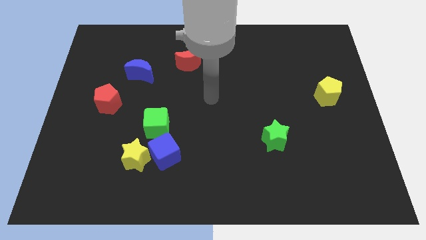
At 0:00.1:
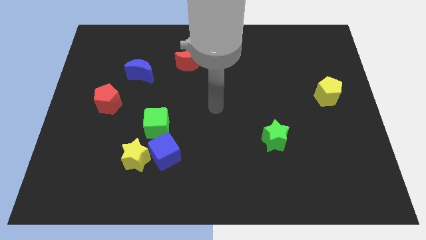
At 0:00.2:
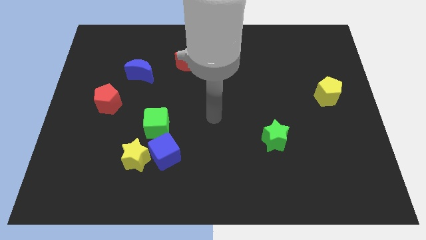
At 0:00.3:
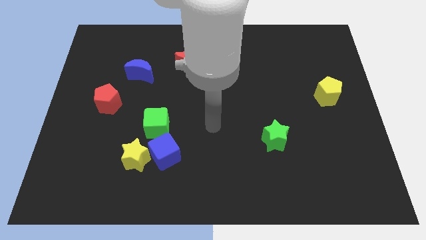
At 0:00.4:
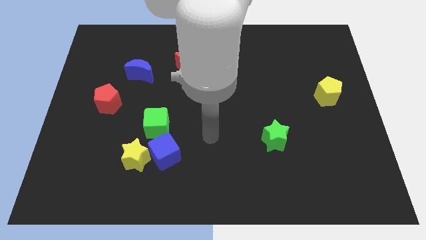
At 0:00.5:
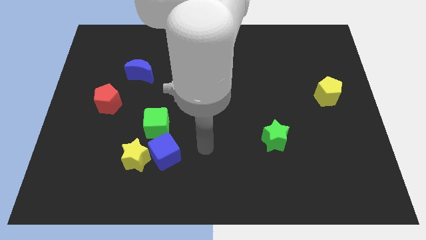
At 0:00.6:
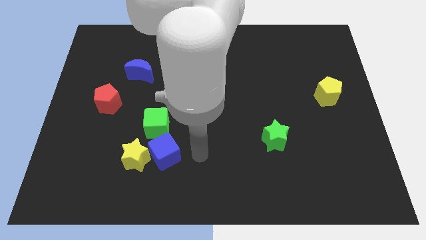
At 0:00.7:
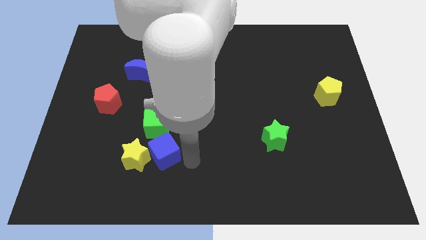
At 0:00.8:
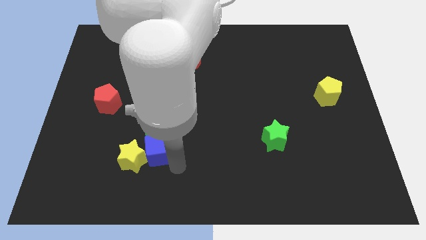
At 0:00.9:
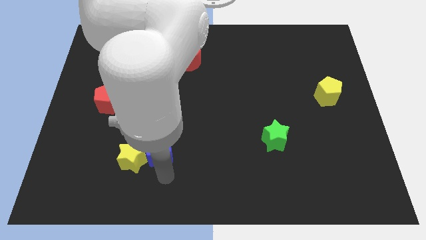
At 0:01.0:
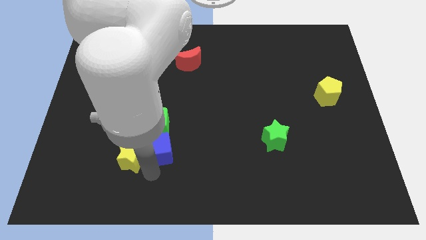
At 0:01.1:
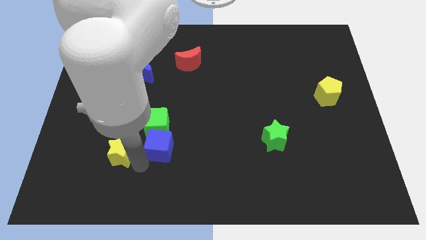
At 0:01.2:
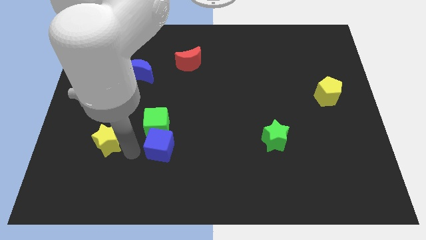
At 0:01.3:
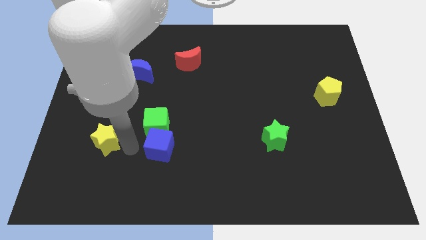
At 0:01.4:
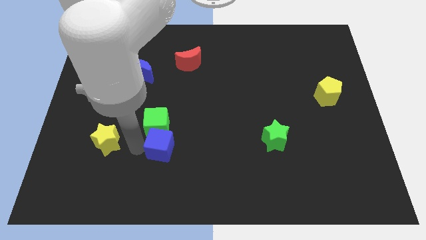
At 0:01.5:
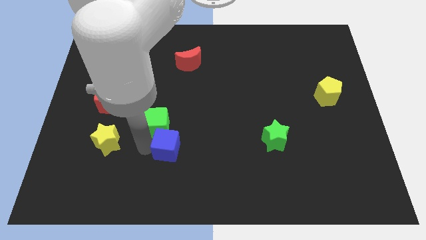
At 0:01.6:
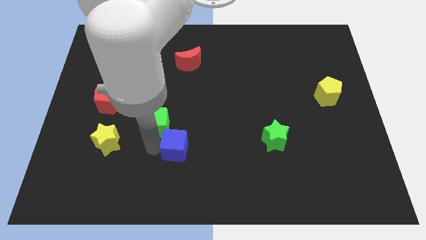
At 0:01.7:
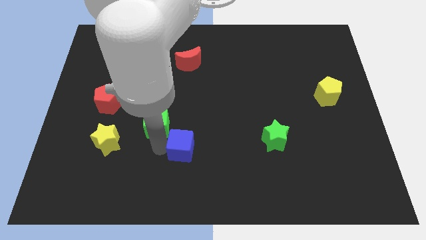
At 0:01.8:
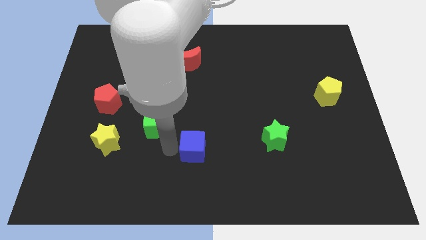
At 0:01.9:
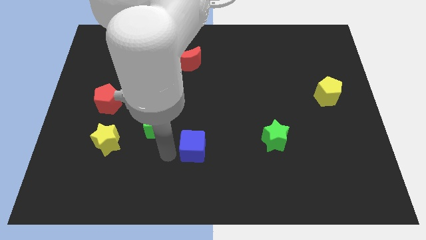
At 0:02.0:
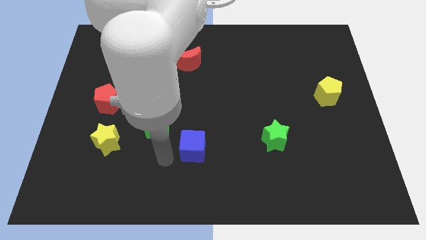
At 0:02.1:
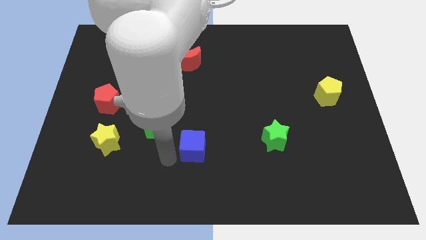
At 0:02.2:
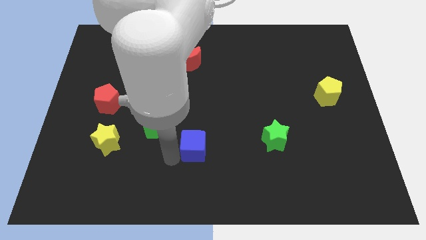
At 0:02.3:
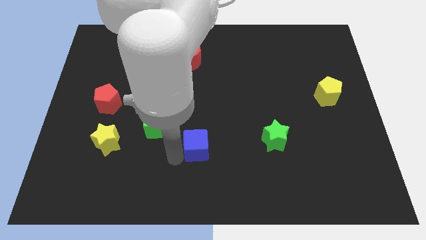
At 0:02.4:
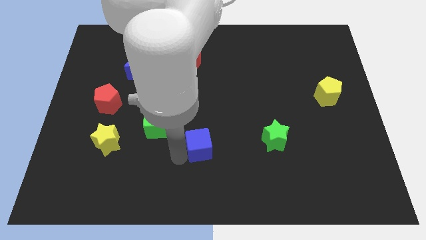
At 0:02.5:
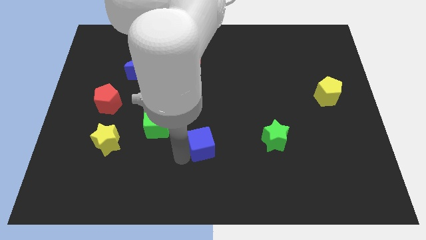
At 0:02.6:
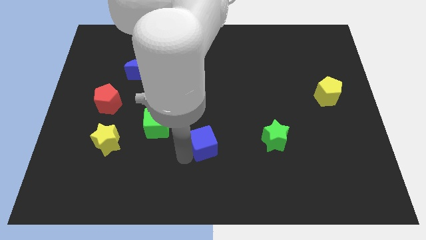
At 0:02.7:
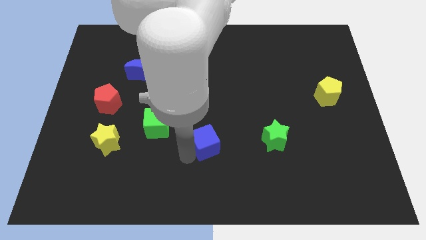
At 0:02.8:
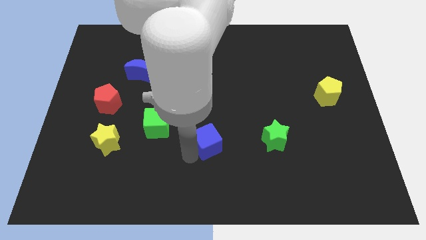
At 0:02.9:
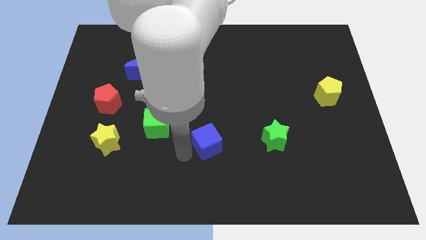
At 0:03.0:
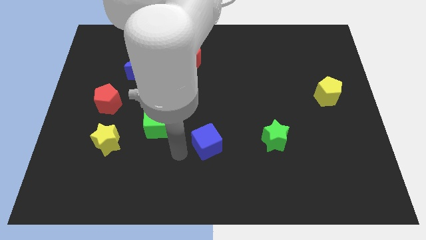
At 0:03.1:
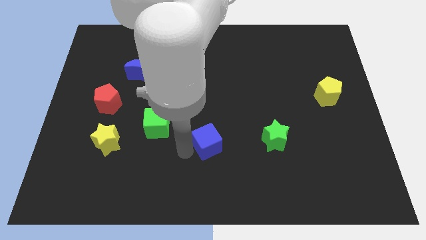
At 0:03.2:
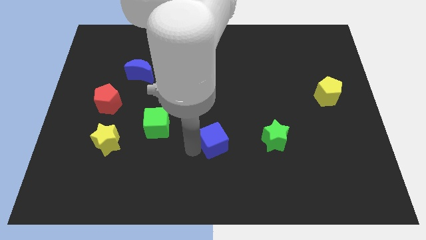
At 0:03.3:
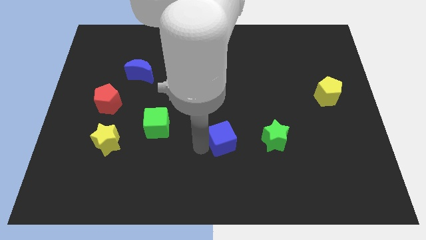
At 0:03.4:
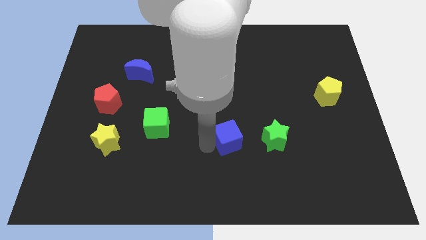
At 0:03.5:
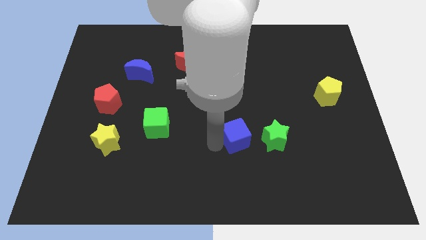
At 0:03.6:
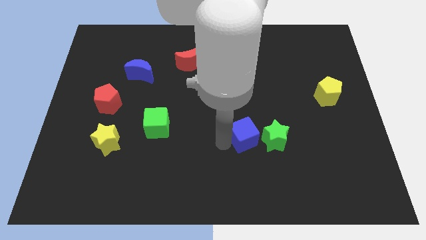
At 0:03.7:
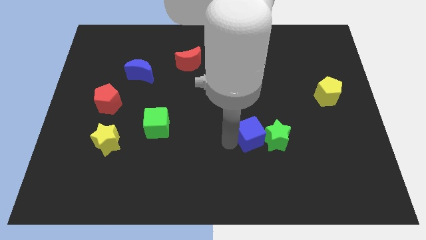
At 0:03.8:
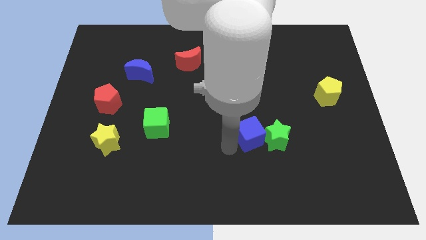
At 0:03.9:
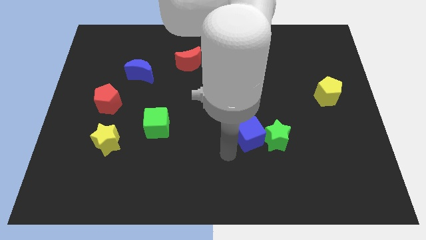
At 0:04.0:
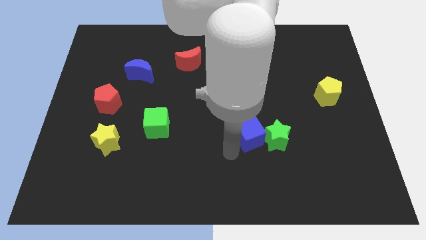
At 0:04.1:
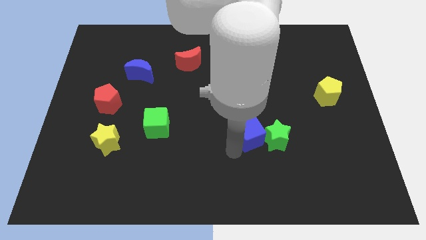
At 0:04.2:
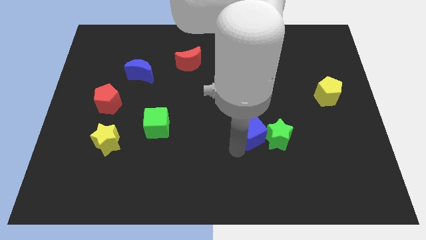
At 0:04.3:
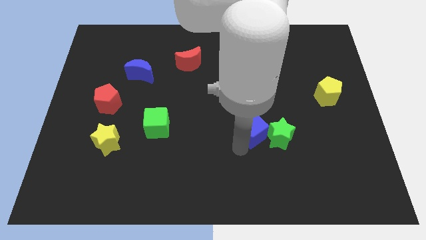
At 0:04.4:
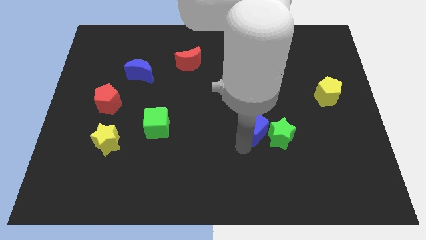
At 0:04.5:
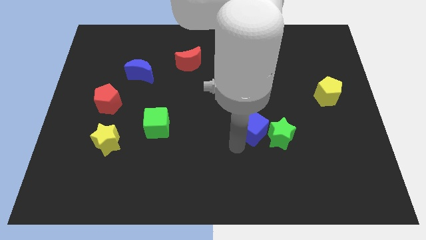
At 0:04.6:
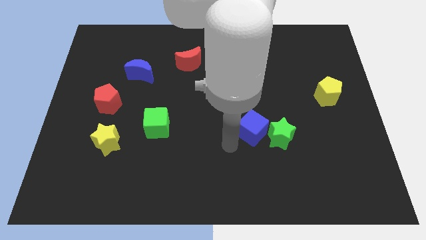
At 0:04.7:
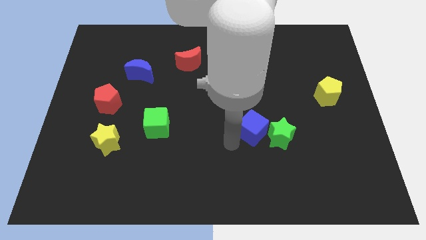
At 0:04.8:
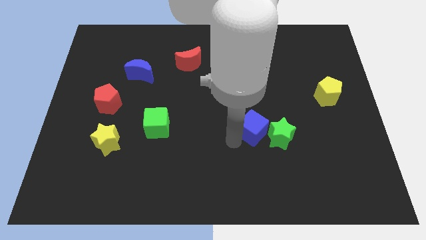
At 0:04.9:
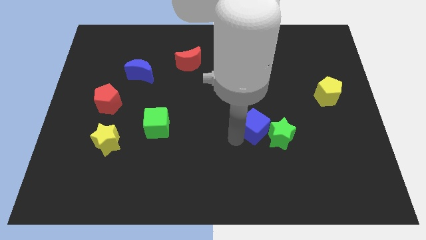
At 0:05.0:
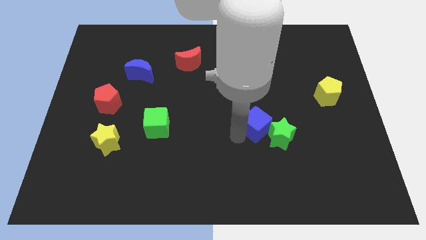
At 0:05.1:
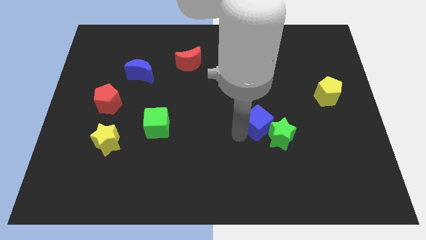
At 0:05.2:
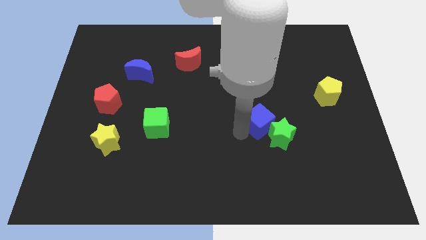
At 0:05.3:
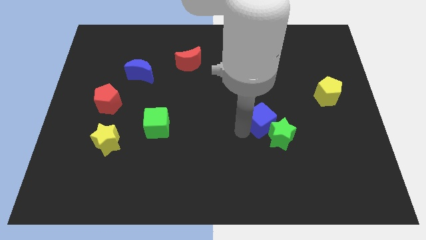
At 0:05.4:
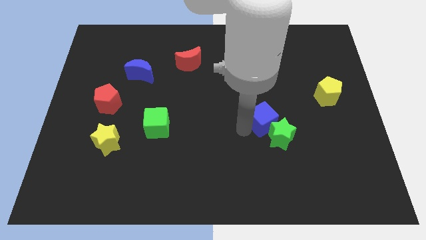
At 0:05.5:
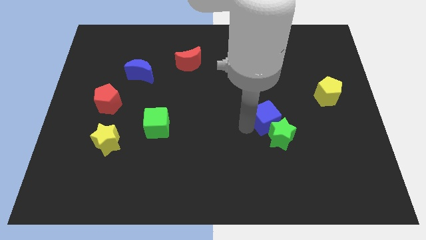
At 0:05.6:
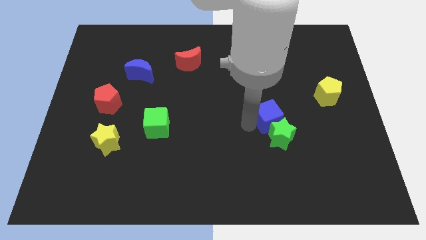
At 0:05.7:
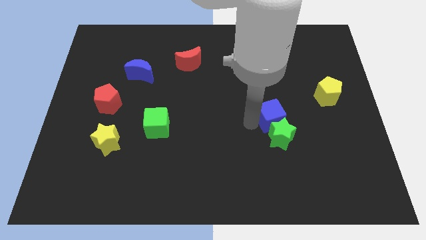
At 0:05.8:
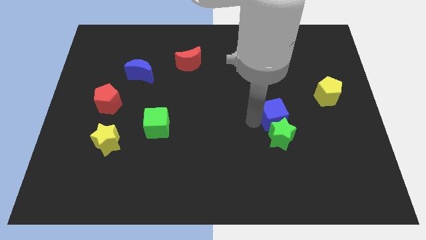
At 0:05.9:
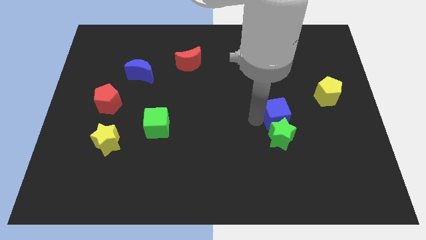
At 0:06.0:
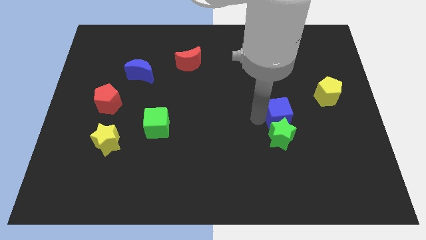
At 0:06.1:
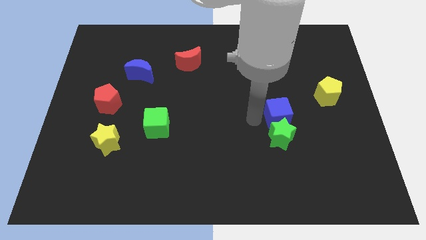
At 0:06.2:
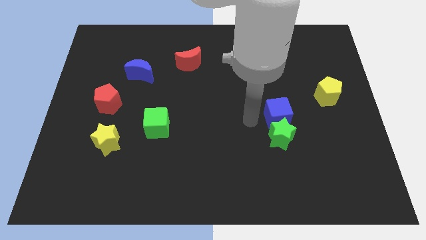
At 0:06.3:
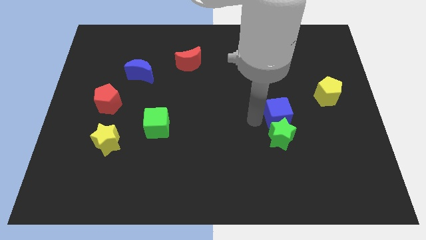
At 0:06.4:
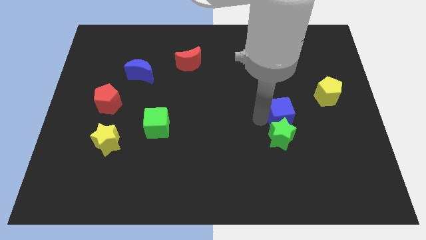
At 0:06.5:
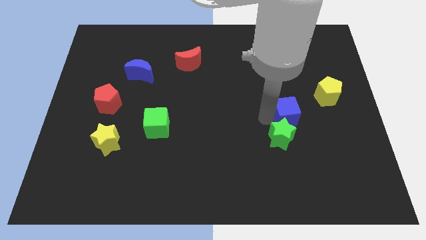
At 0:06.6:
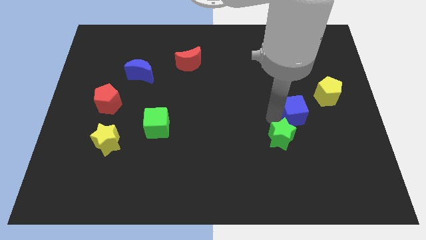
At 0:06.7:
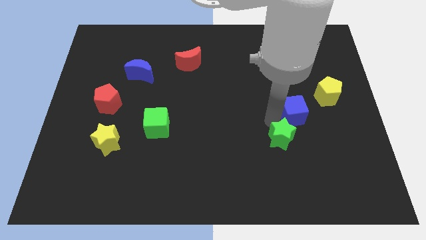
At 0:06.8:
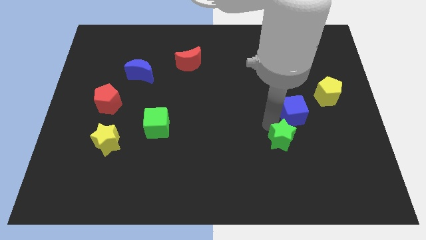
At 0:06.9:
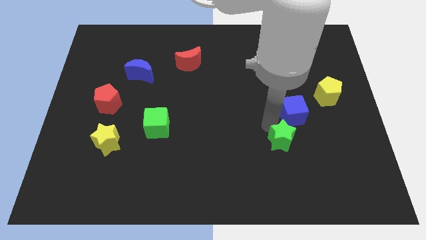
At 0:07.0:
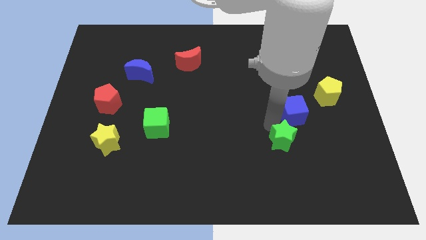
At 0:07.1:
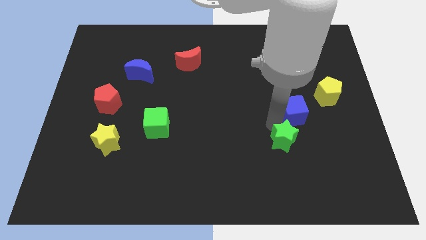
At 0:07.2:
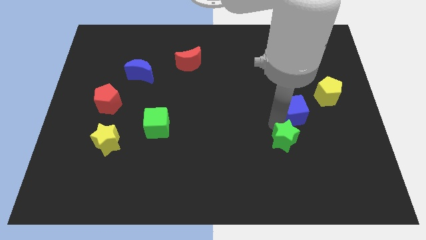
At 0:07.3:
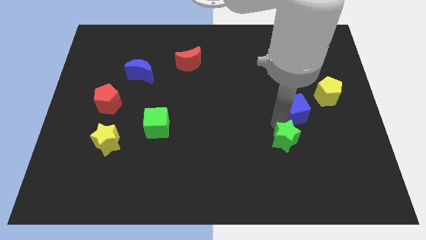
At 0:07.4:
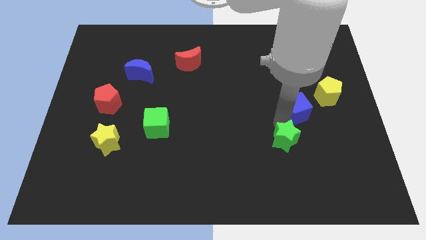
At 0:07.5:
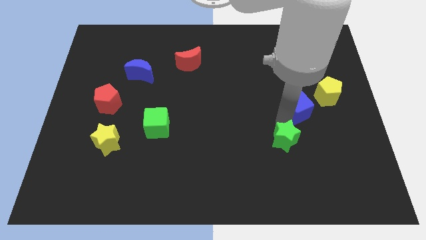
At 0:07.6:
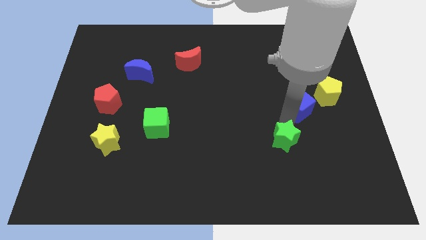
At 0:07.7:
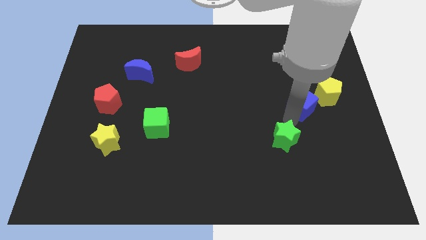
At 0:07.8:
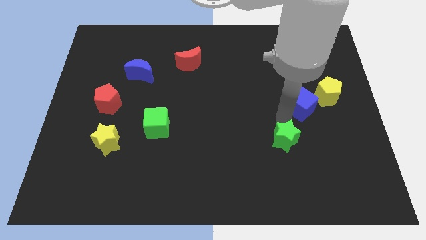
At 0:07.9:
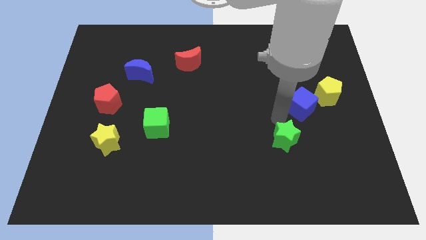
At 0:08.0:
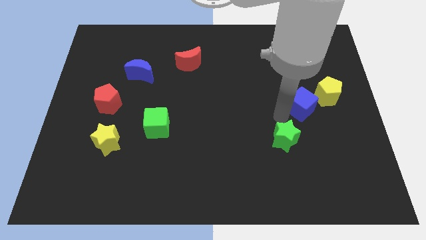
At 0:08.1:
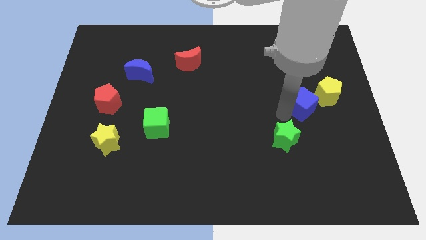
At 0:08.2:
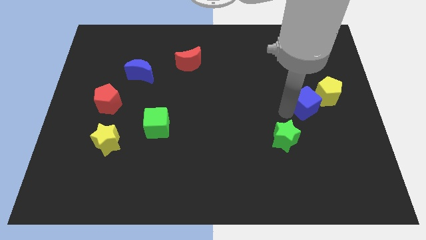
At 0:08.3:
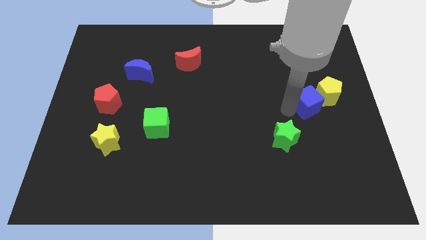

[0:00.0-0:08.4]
slide the blue cube next to the yellow pentagon

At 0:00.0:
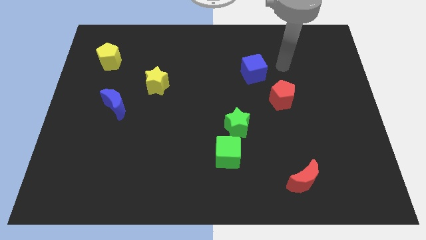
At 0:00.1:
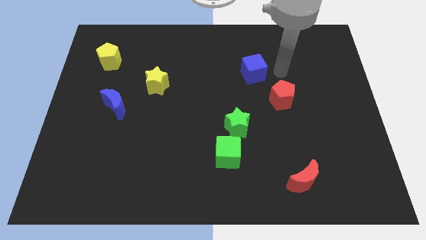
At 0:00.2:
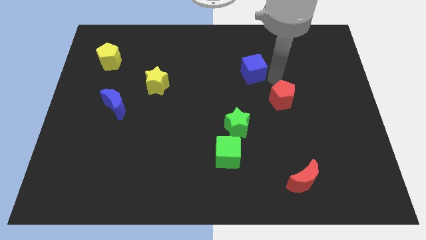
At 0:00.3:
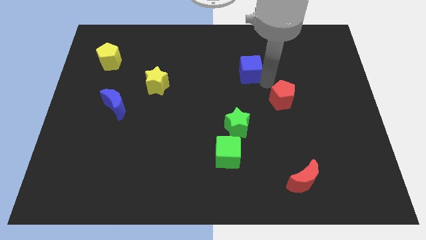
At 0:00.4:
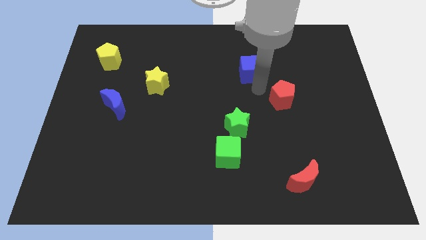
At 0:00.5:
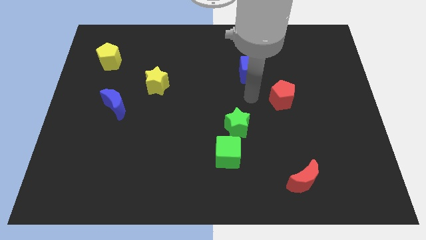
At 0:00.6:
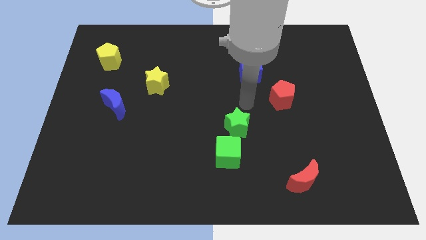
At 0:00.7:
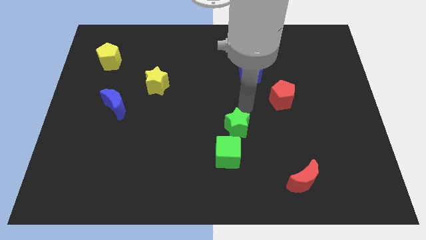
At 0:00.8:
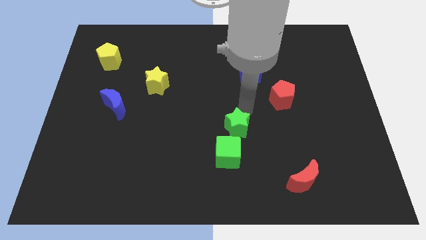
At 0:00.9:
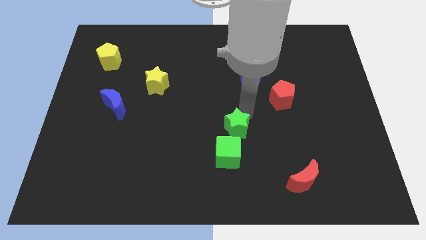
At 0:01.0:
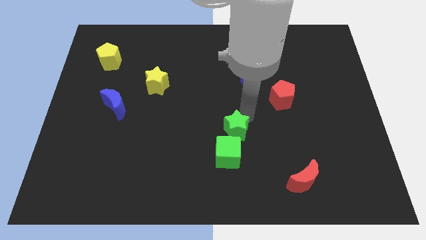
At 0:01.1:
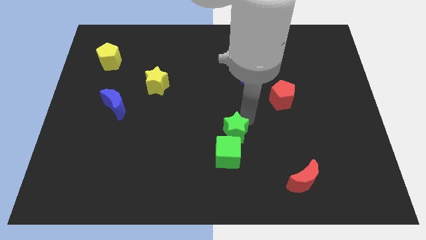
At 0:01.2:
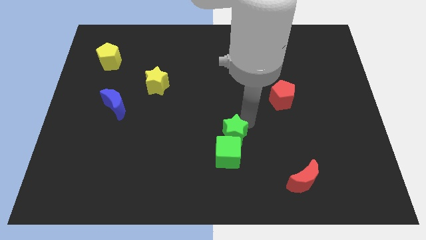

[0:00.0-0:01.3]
push the green star towards the green cube
